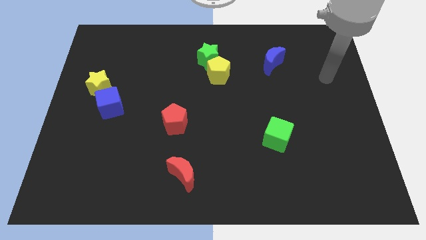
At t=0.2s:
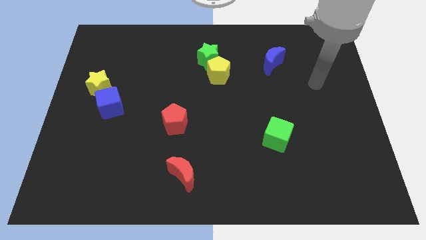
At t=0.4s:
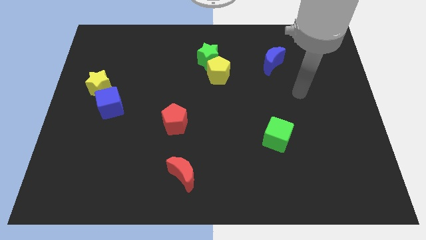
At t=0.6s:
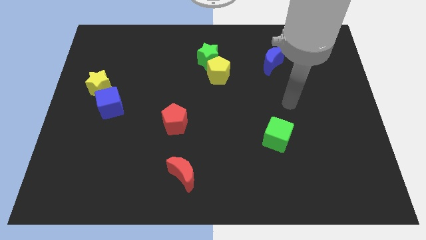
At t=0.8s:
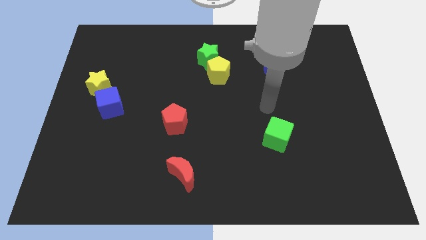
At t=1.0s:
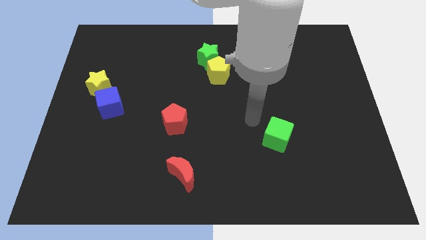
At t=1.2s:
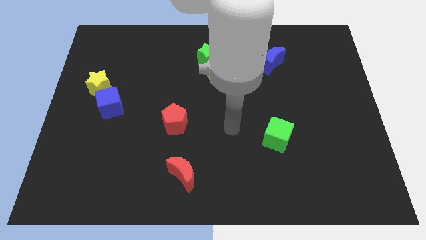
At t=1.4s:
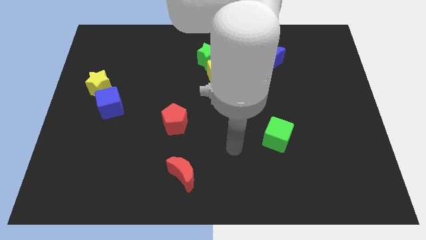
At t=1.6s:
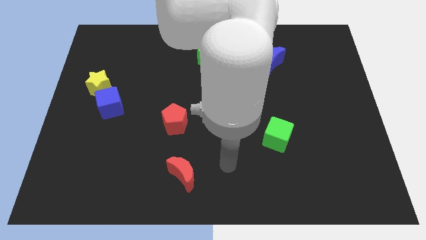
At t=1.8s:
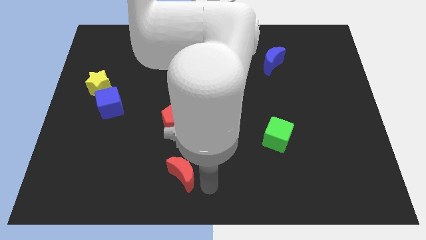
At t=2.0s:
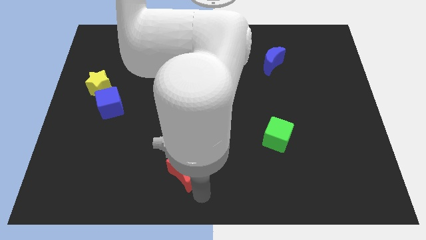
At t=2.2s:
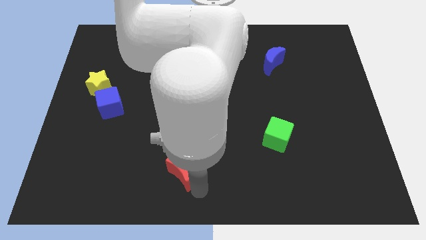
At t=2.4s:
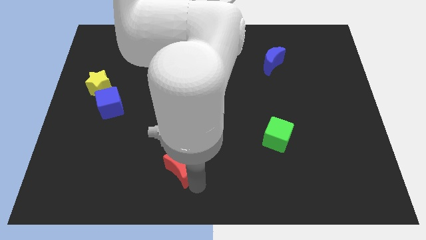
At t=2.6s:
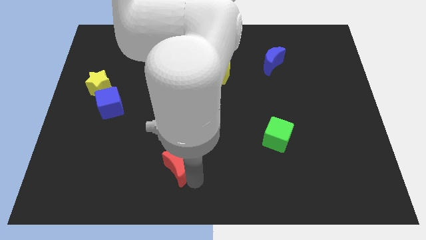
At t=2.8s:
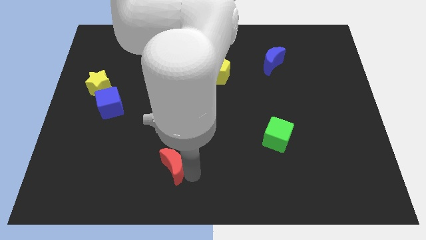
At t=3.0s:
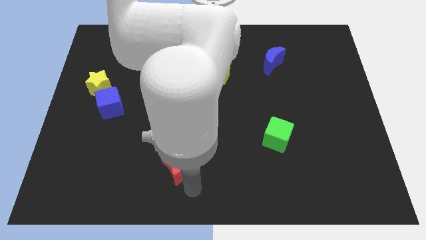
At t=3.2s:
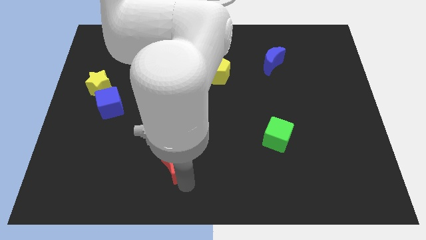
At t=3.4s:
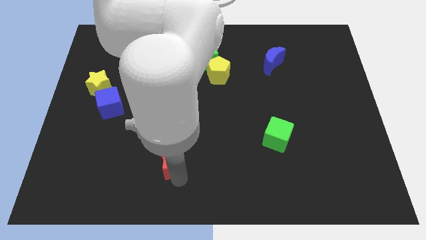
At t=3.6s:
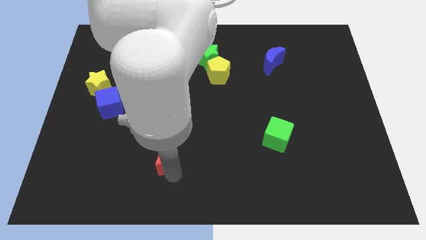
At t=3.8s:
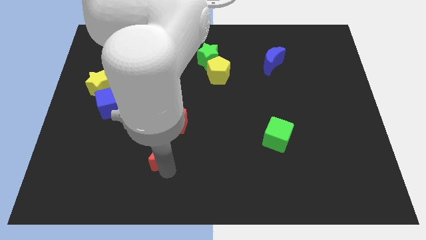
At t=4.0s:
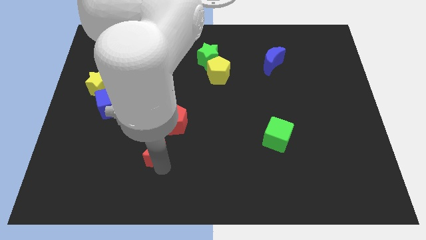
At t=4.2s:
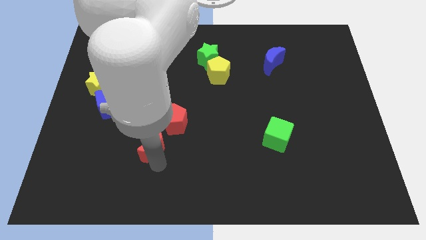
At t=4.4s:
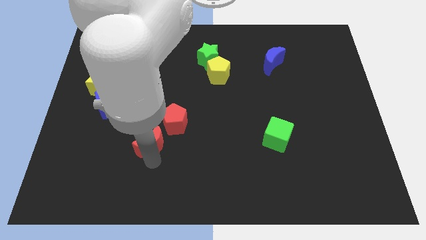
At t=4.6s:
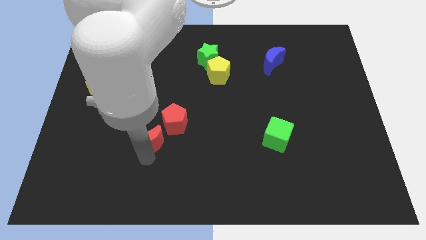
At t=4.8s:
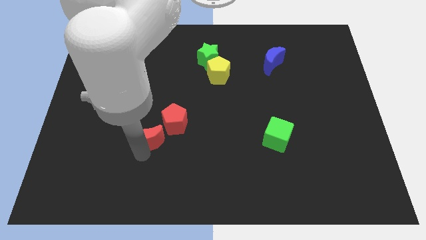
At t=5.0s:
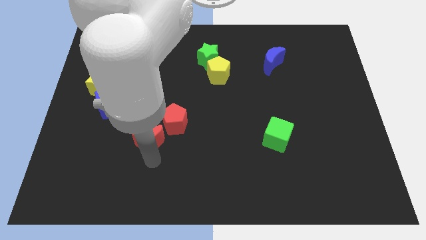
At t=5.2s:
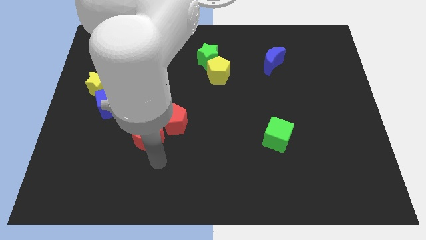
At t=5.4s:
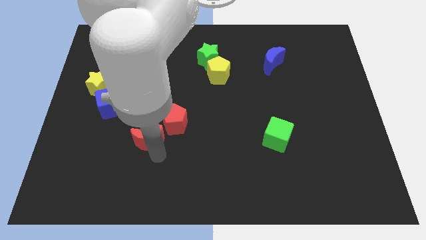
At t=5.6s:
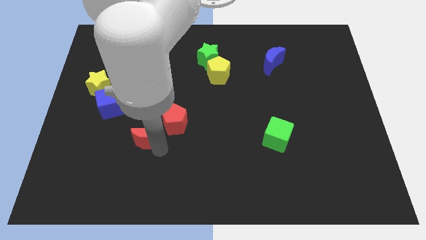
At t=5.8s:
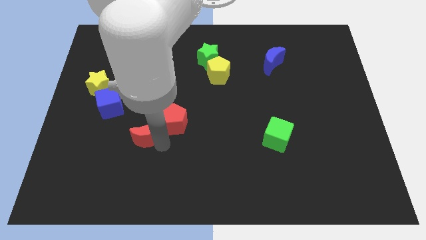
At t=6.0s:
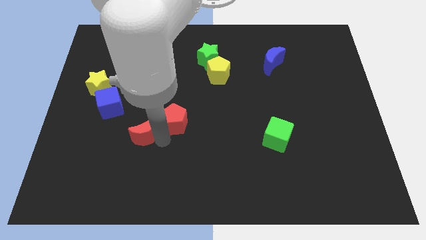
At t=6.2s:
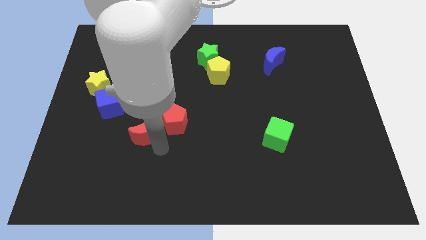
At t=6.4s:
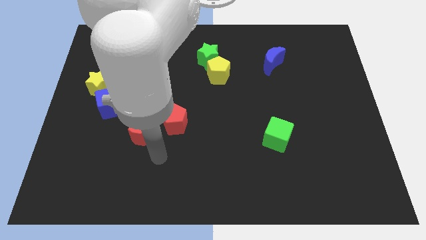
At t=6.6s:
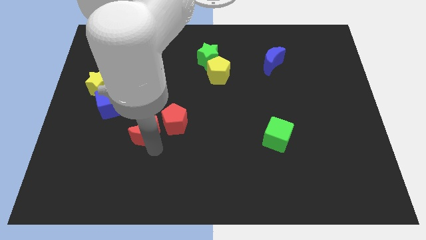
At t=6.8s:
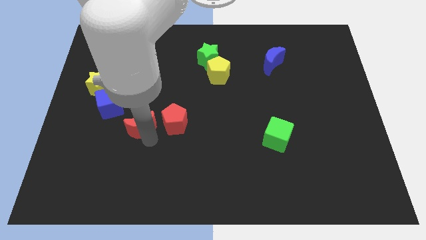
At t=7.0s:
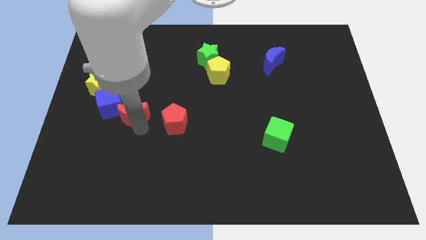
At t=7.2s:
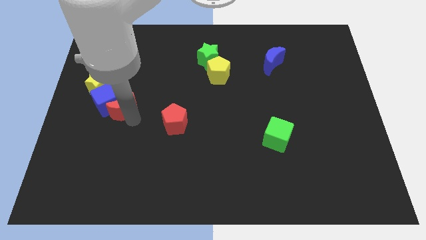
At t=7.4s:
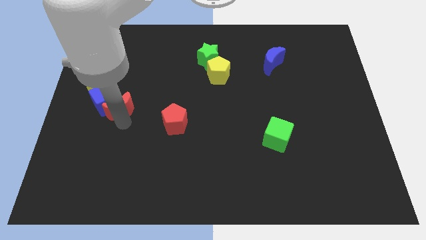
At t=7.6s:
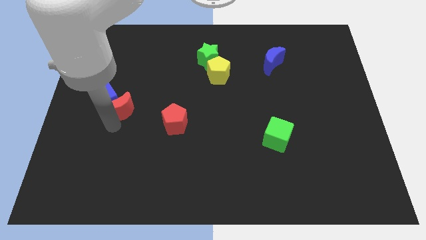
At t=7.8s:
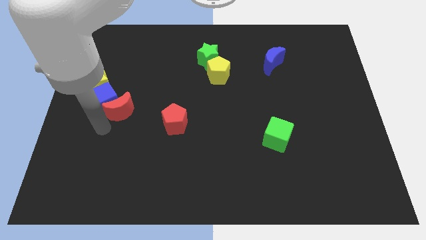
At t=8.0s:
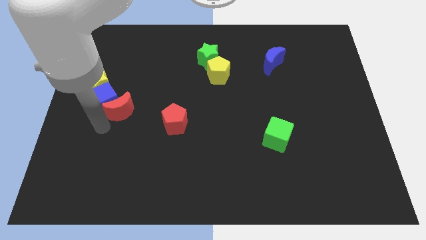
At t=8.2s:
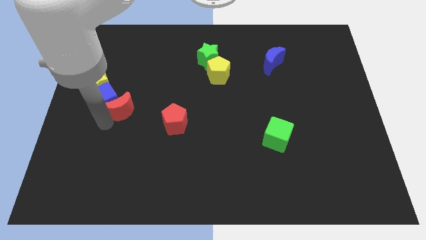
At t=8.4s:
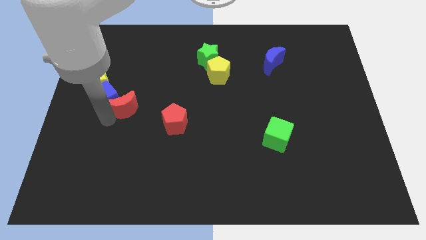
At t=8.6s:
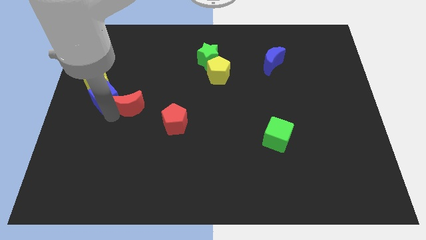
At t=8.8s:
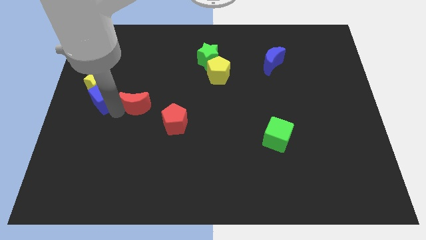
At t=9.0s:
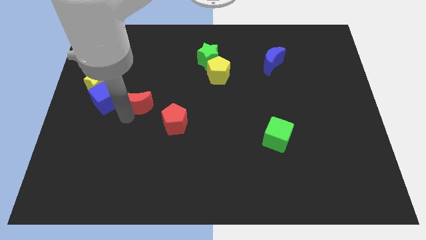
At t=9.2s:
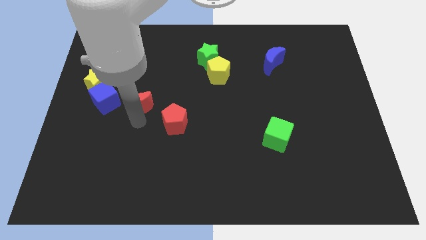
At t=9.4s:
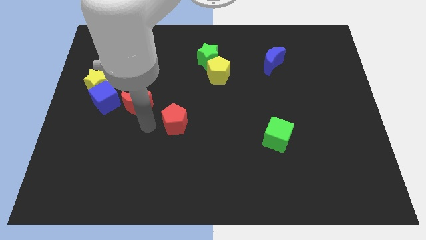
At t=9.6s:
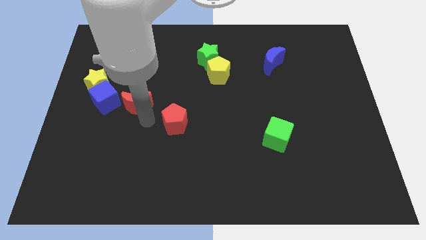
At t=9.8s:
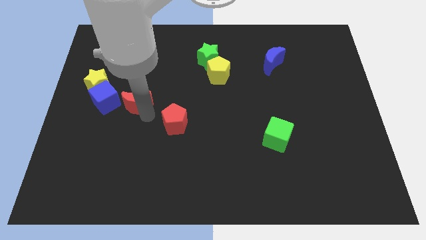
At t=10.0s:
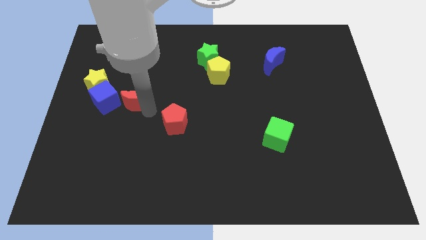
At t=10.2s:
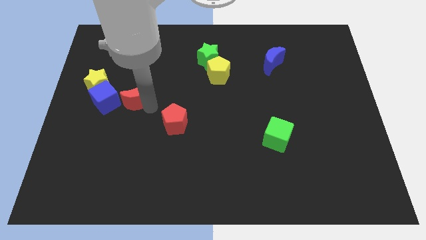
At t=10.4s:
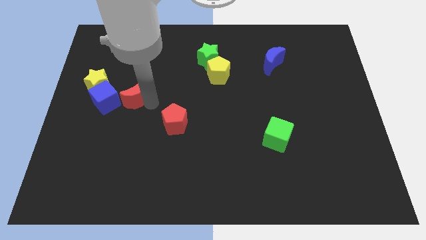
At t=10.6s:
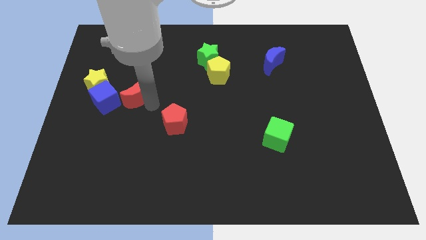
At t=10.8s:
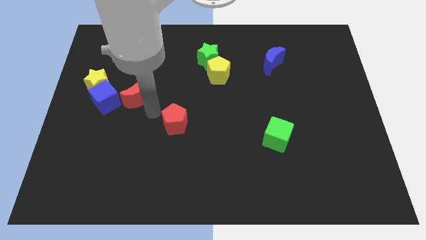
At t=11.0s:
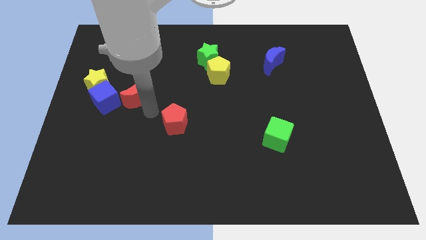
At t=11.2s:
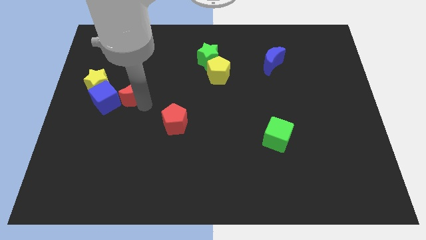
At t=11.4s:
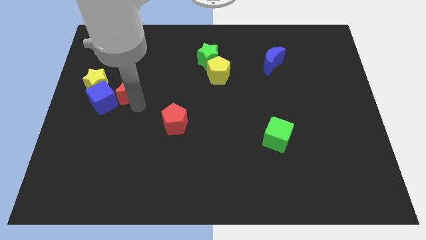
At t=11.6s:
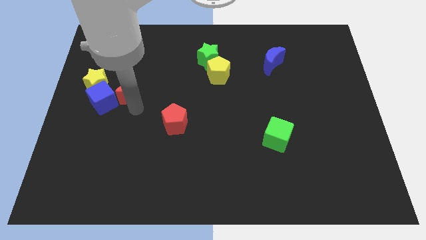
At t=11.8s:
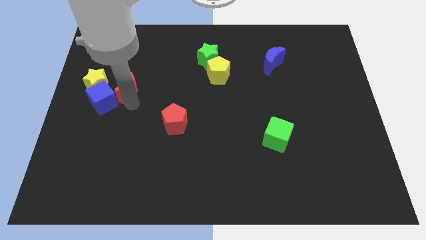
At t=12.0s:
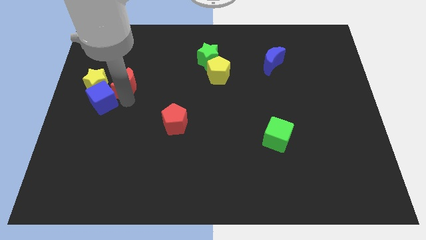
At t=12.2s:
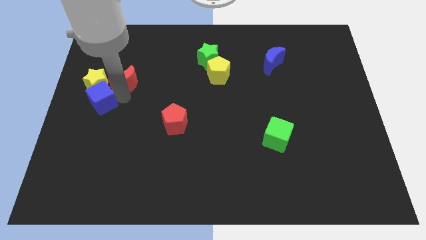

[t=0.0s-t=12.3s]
move the red moon diagonally up and to the right of the yellow star
